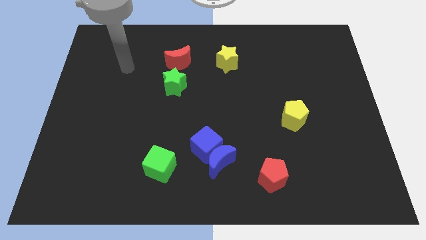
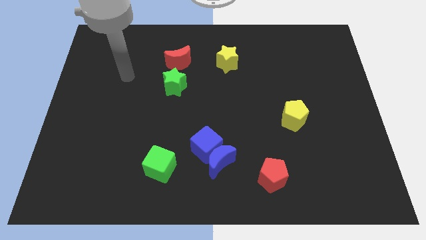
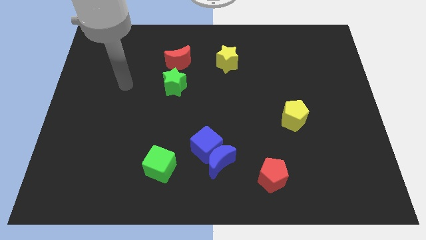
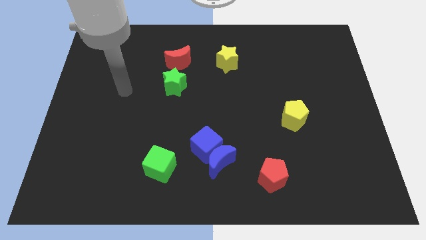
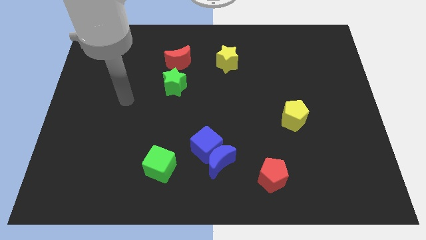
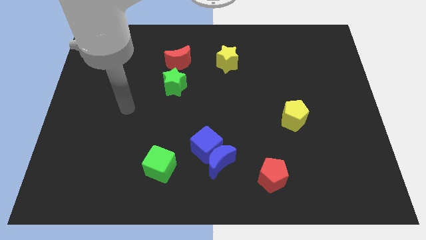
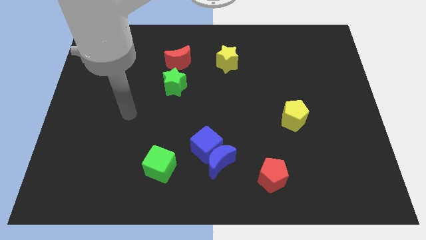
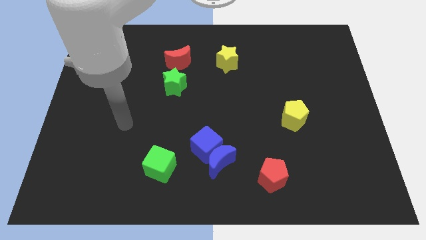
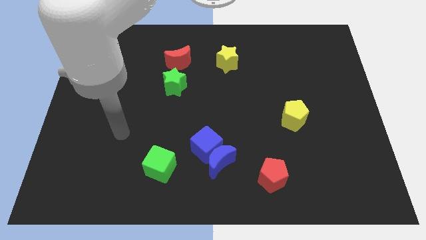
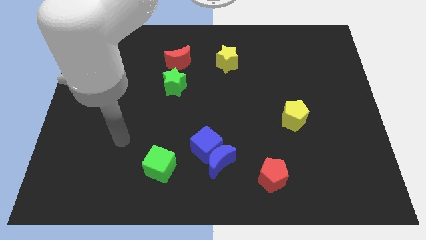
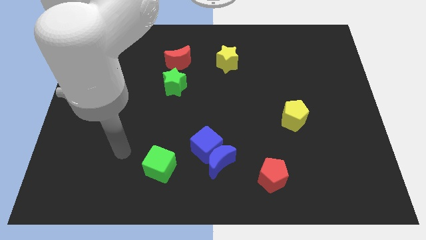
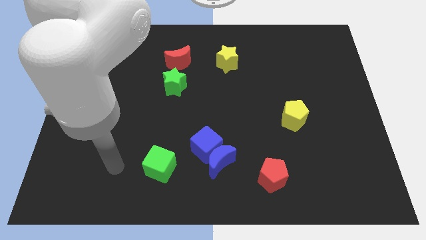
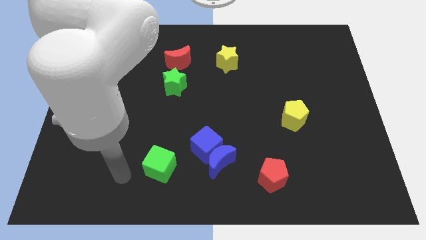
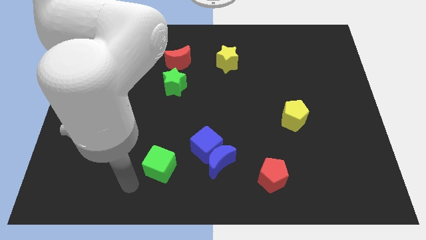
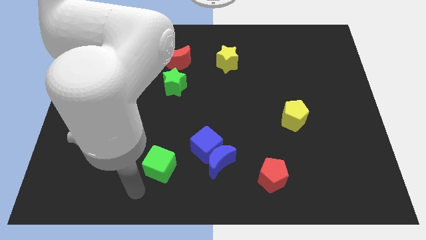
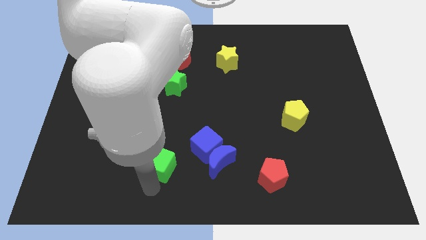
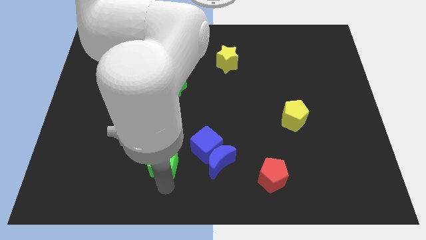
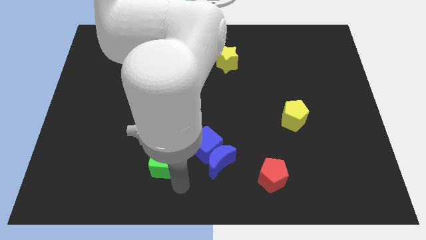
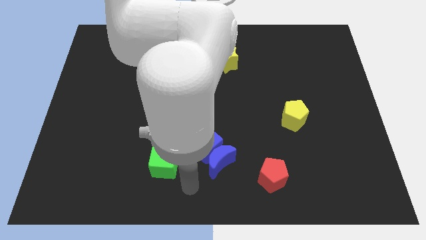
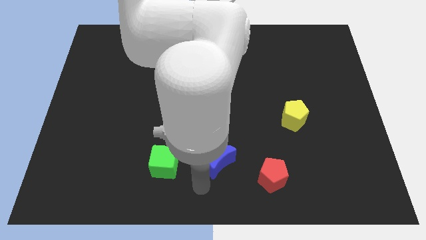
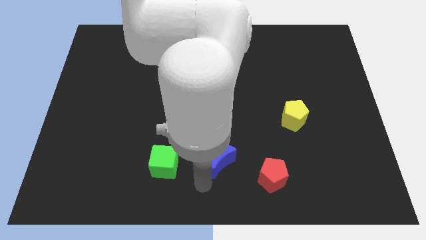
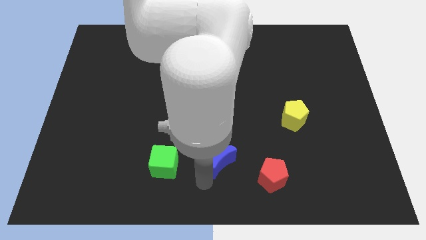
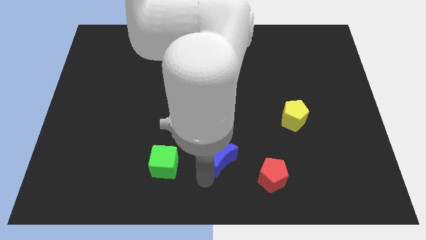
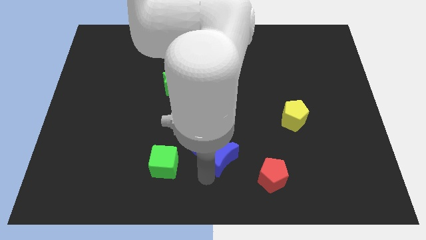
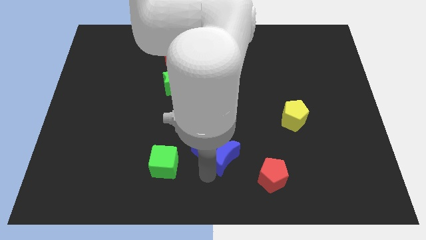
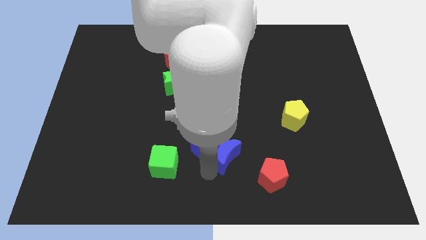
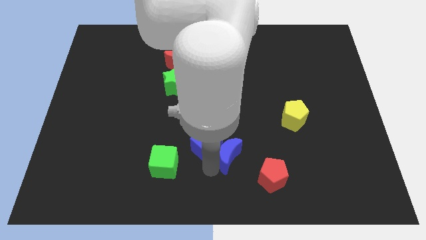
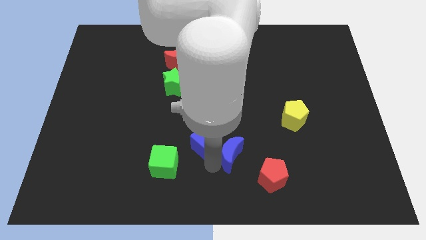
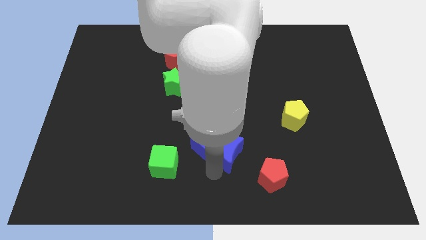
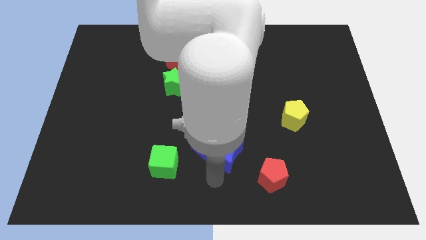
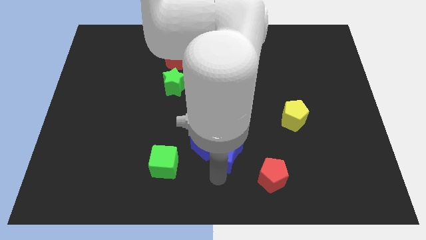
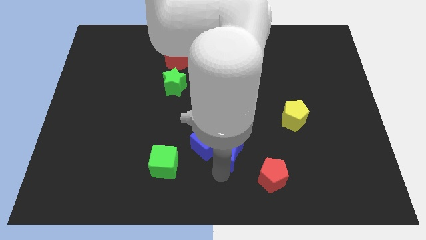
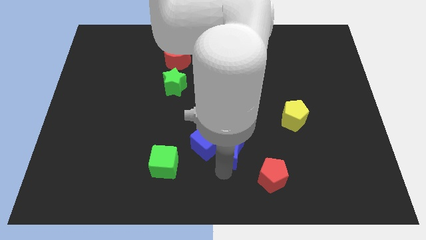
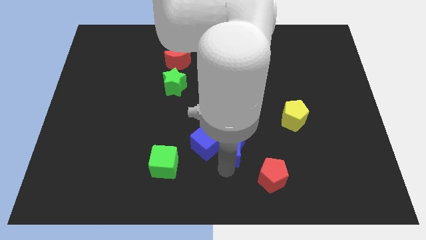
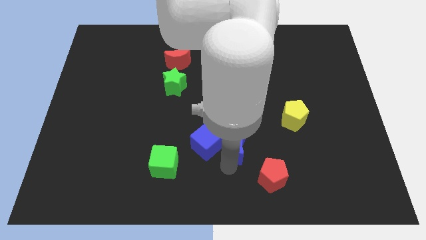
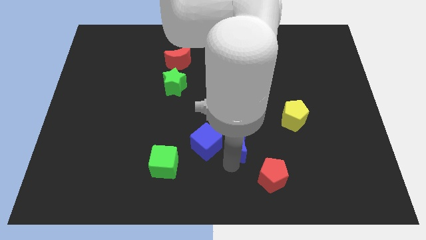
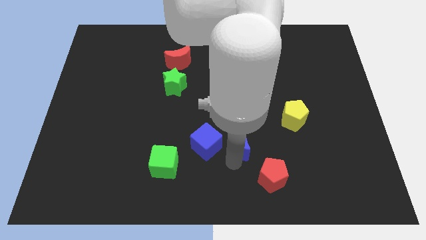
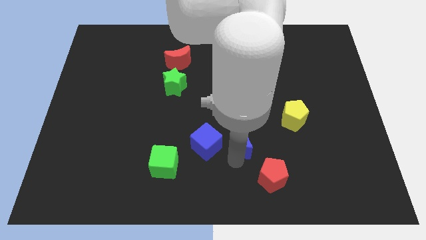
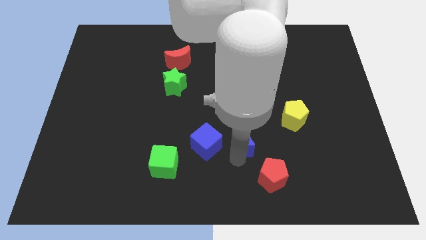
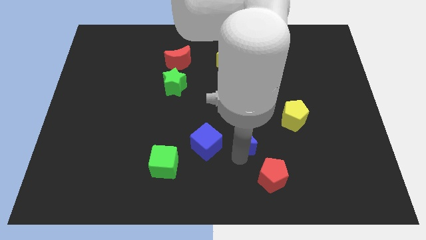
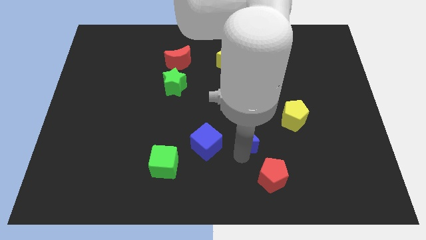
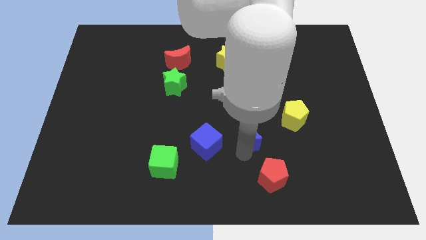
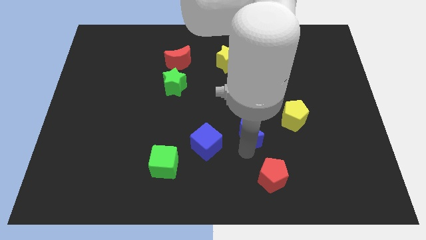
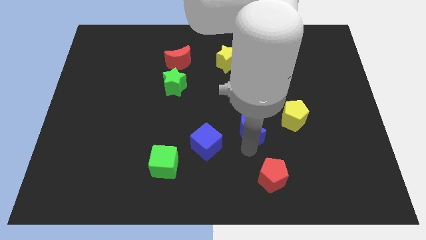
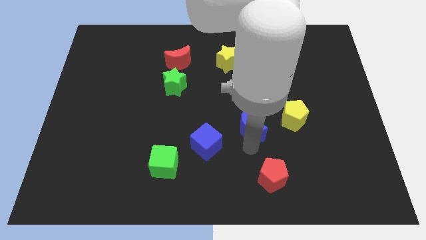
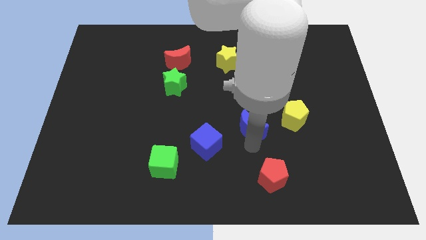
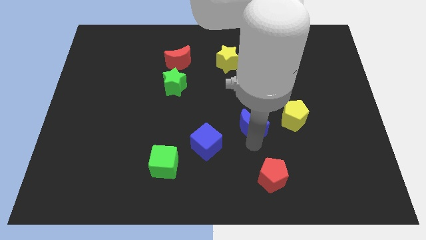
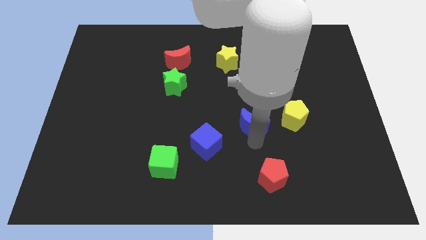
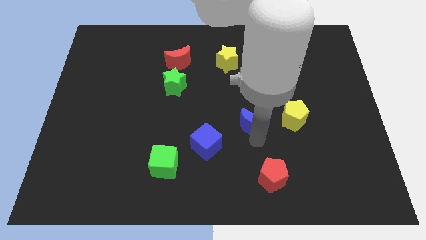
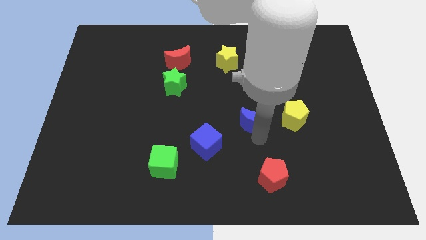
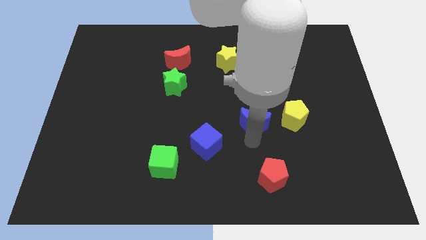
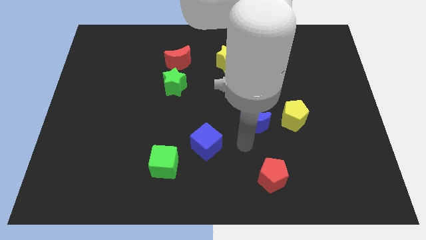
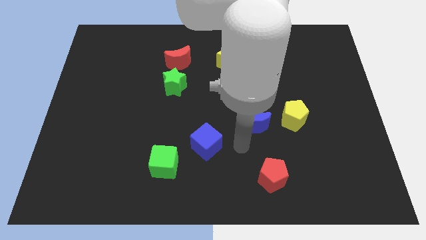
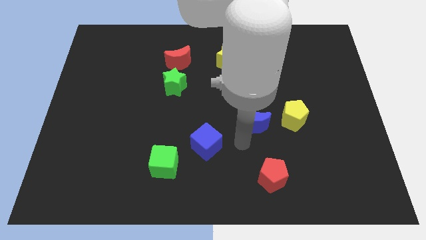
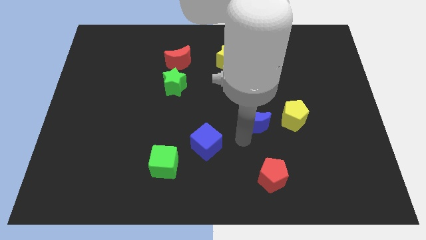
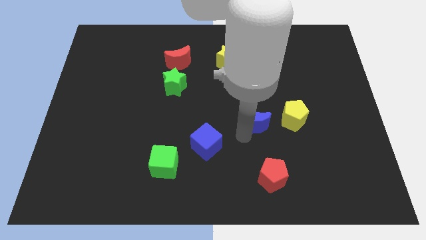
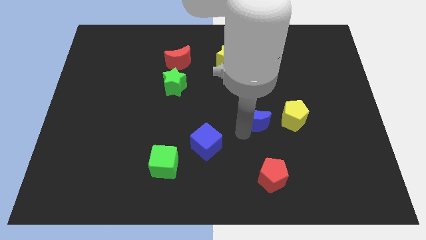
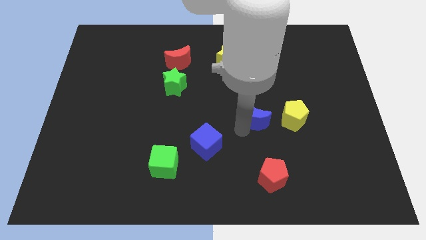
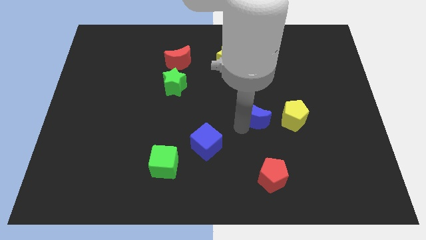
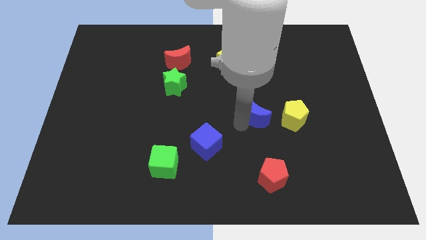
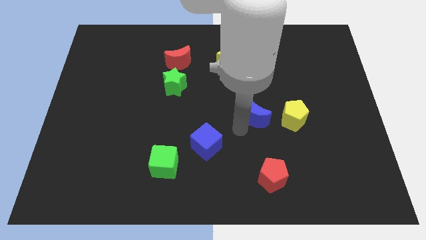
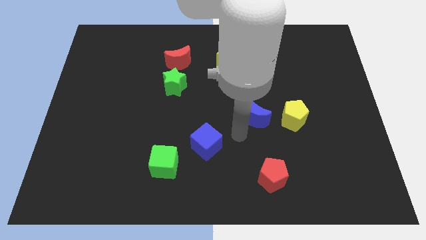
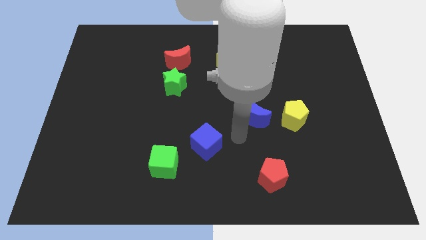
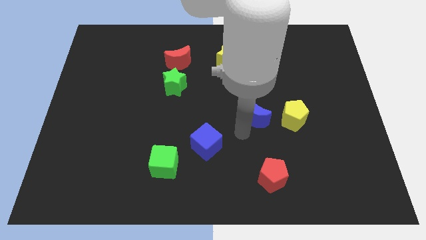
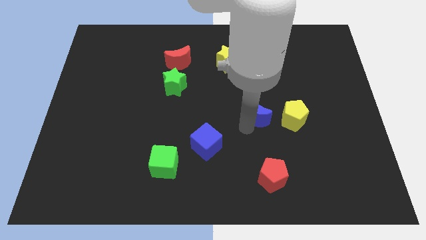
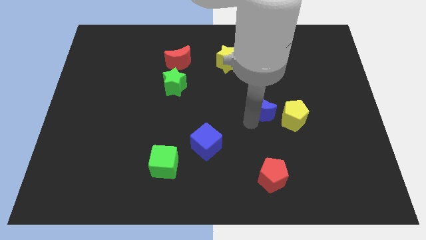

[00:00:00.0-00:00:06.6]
put the blue moon to the top left side of the yellow pentagon
